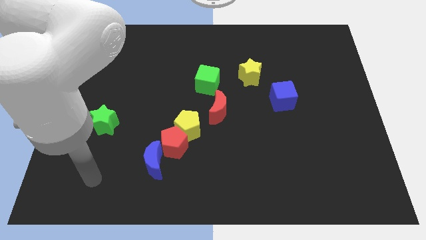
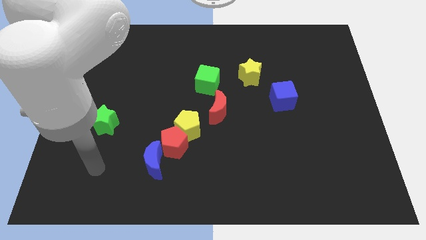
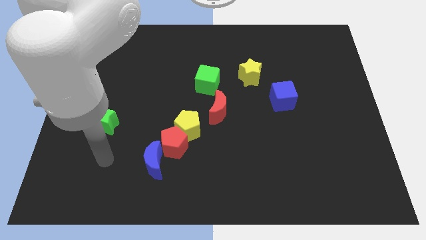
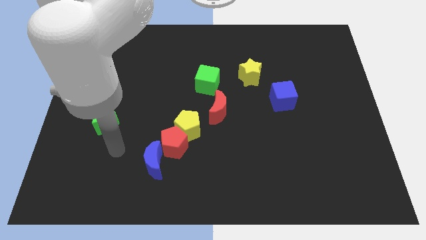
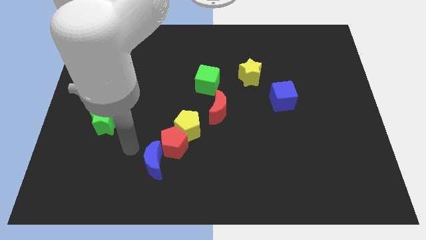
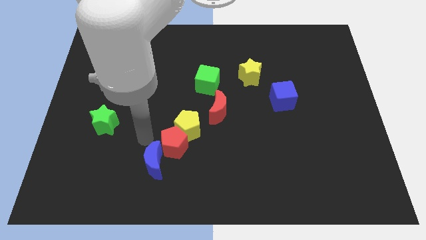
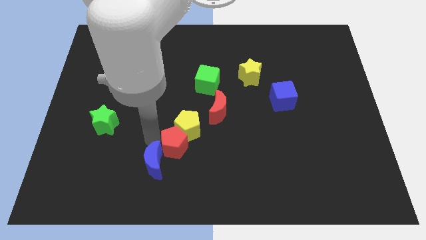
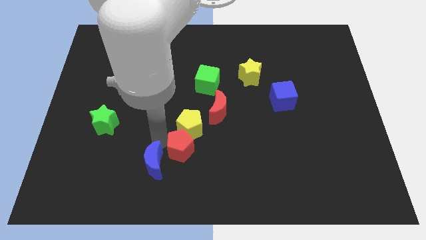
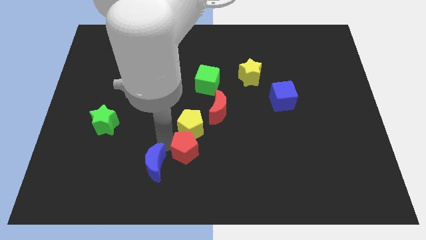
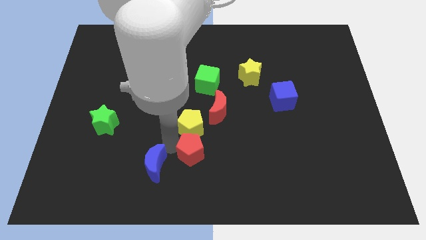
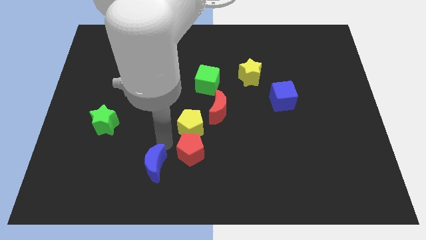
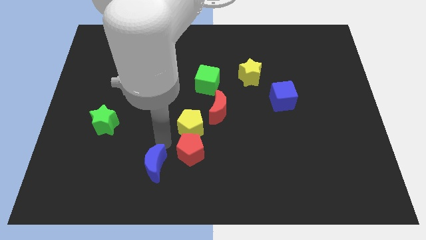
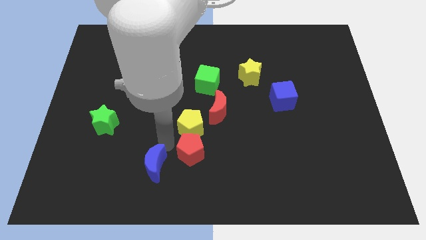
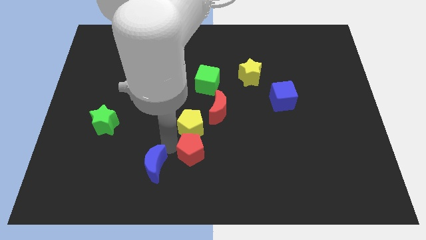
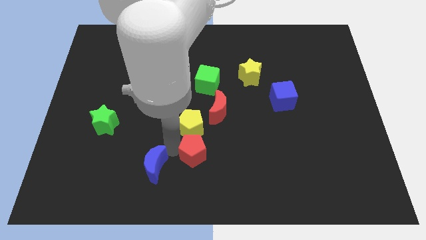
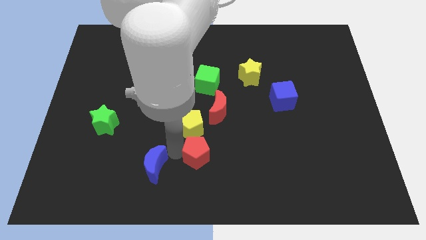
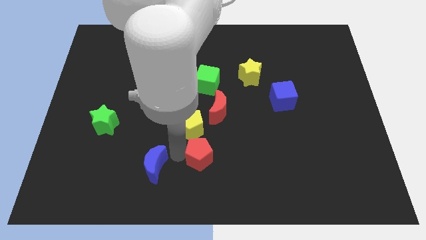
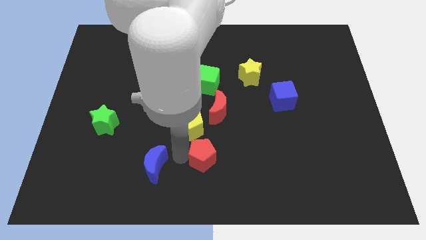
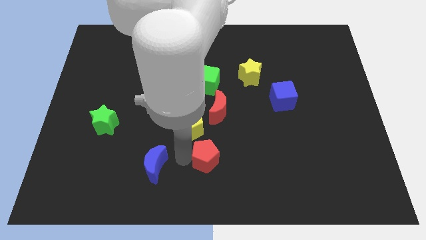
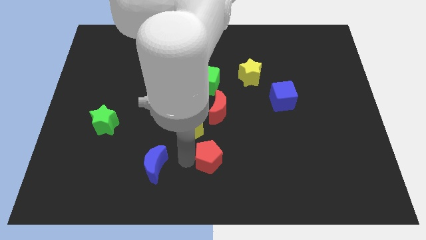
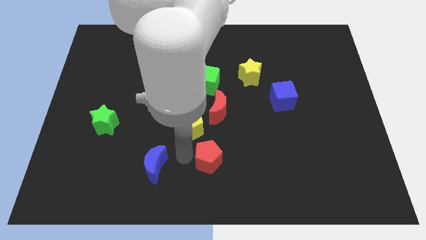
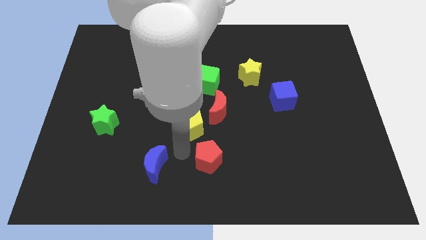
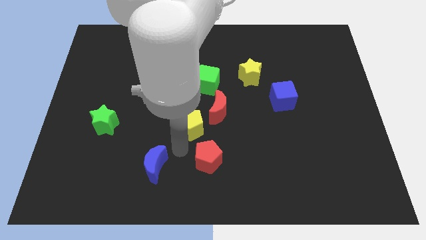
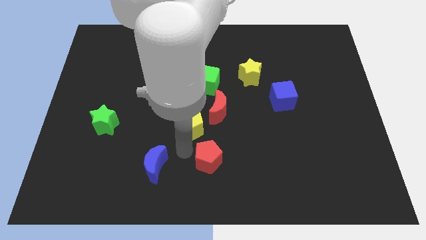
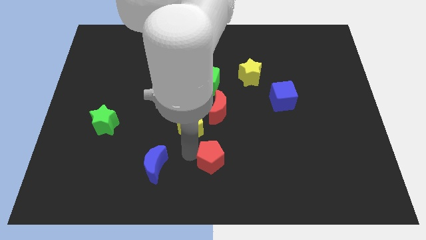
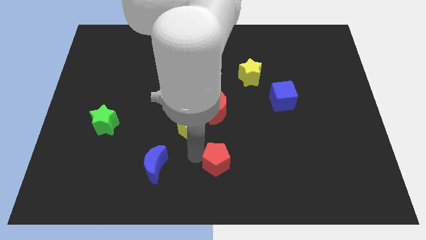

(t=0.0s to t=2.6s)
pull the red pentagon apart from the yellow pentagon and blue moon

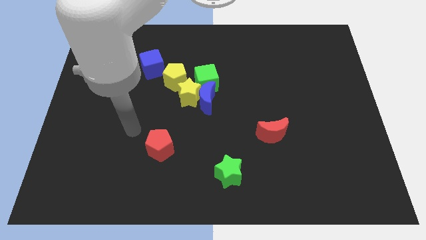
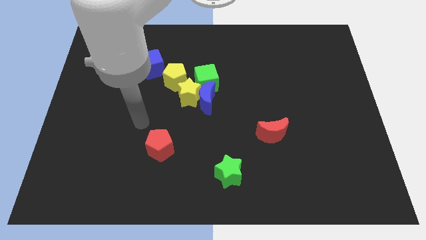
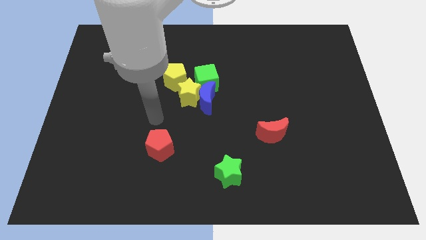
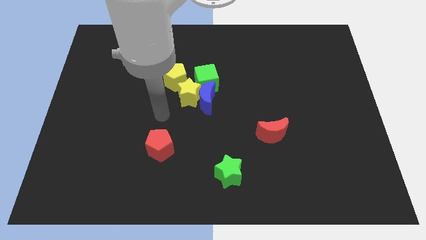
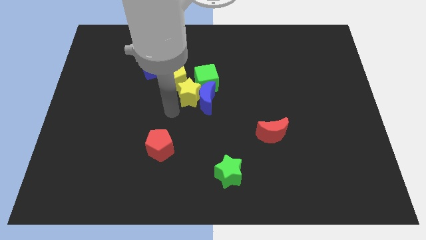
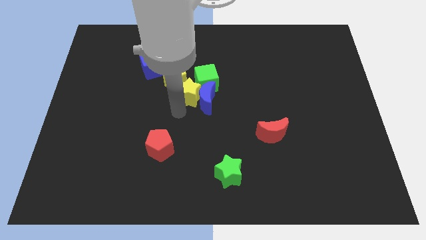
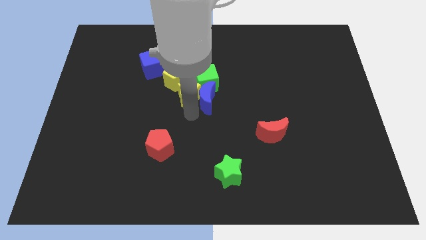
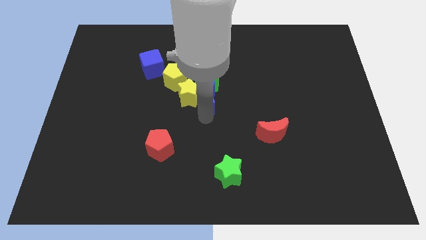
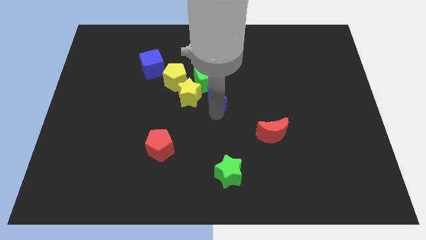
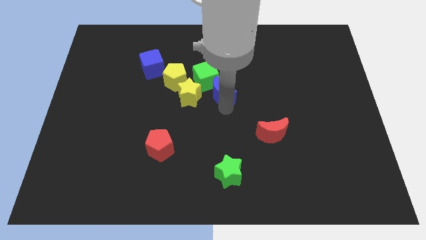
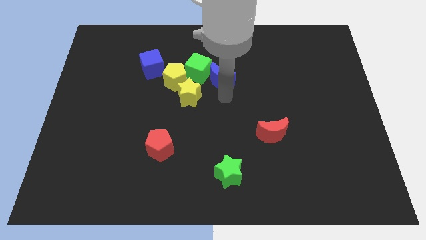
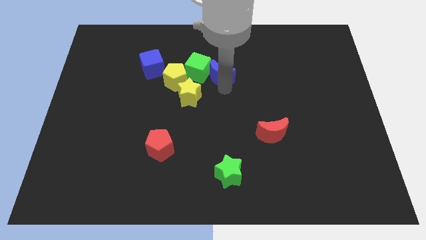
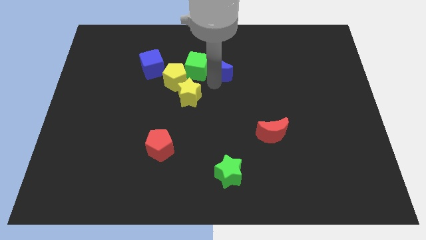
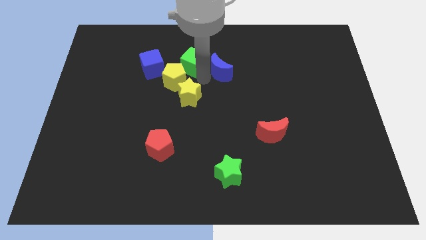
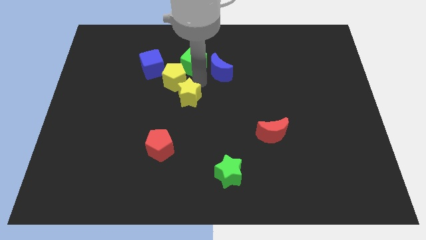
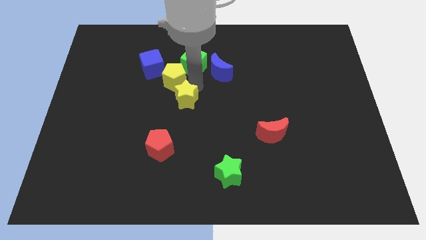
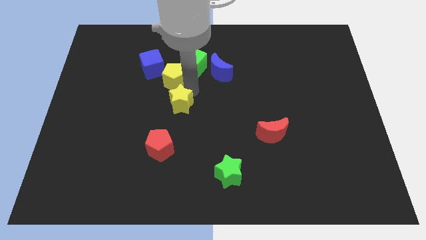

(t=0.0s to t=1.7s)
move the yellow star away from the group of blocks

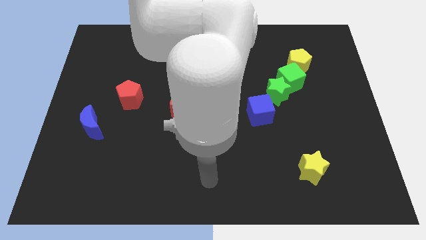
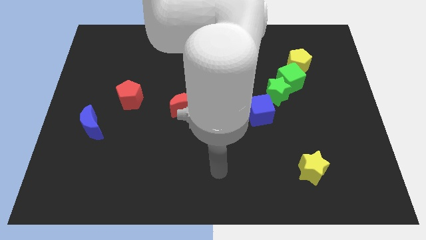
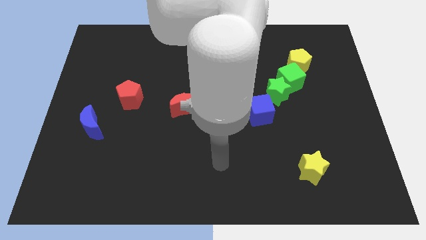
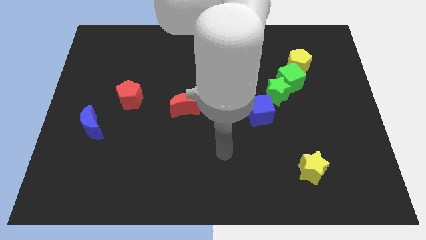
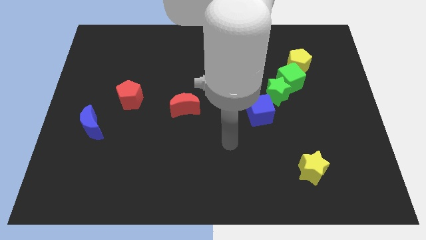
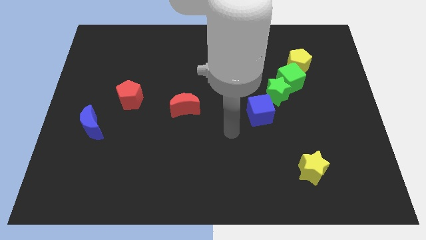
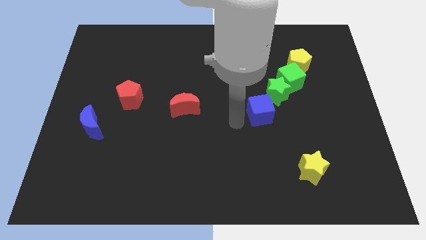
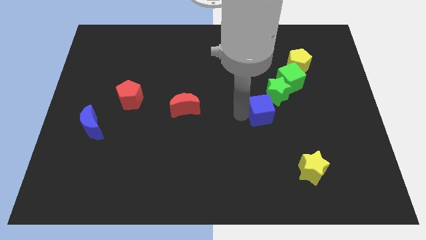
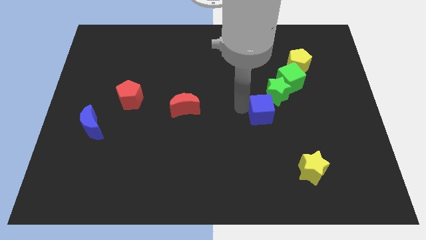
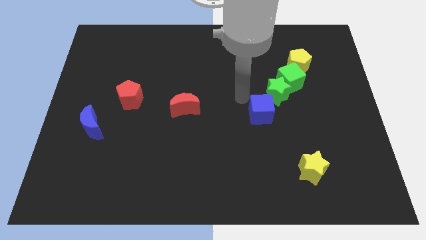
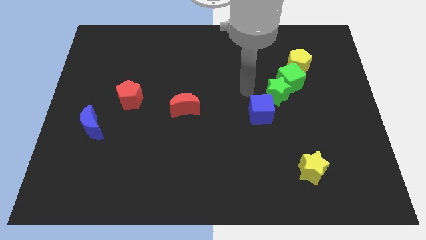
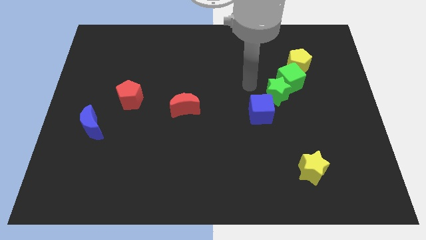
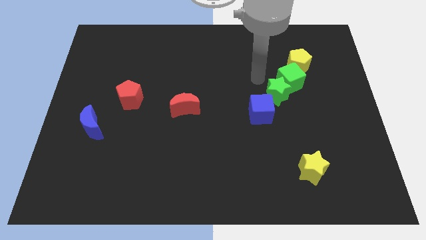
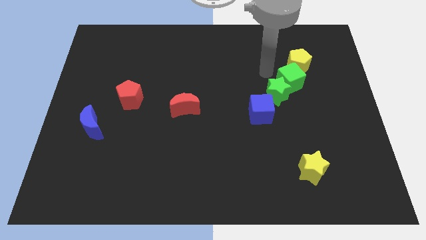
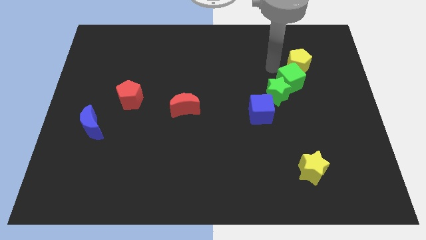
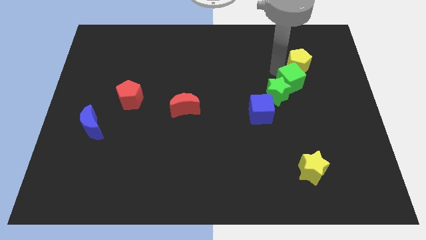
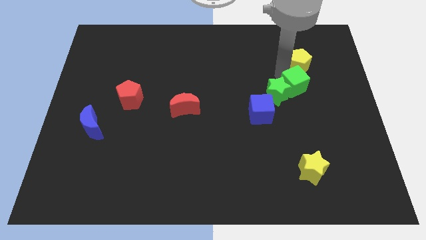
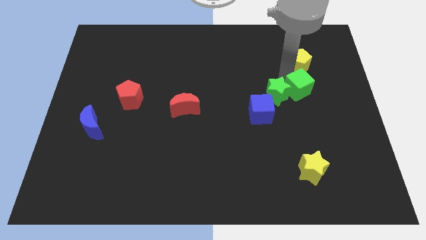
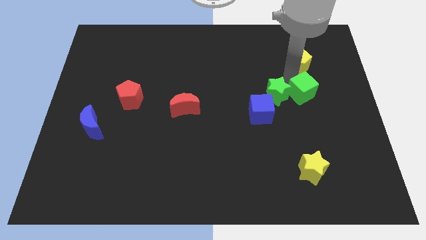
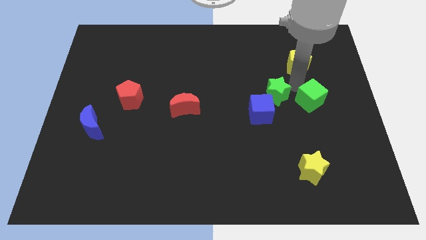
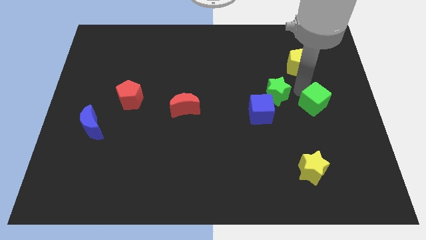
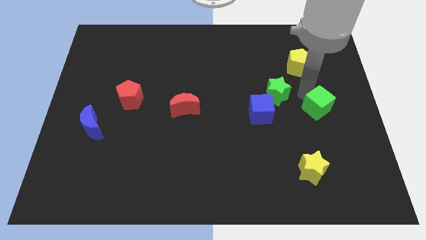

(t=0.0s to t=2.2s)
separate the green cube from the green star and yellow pentagon

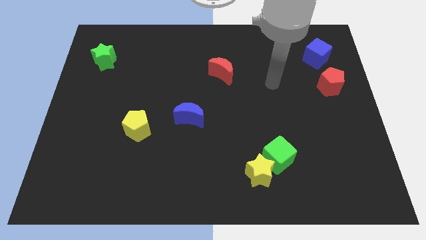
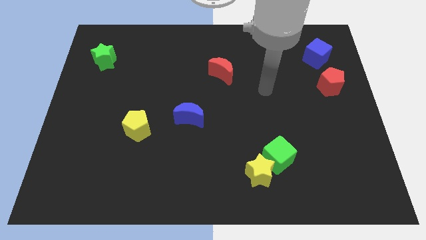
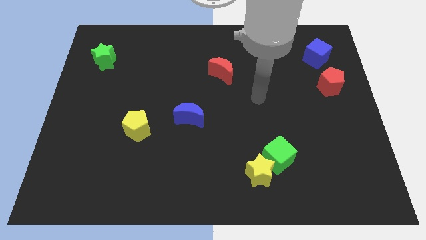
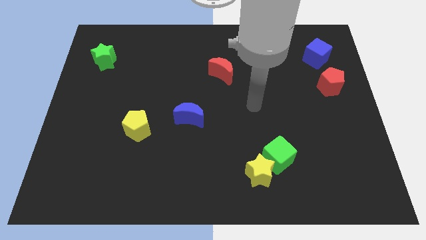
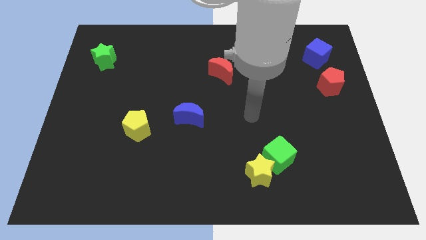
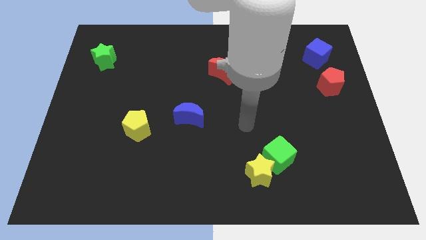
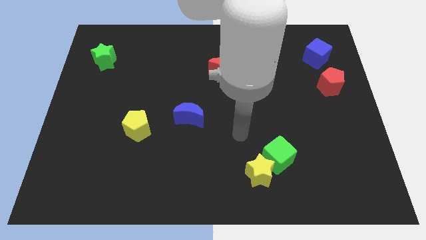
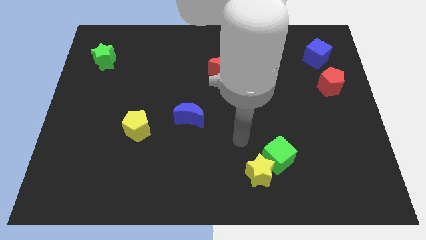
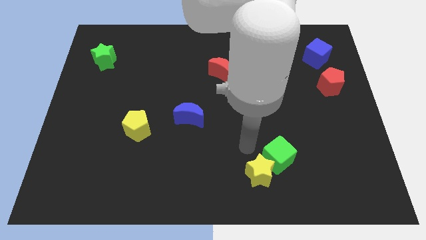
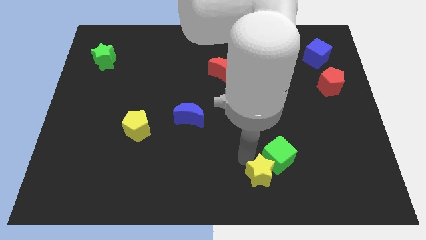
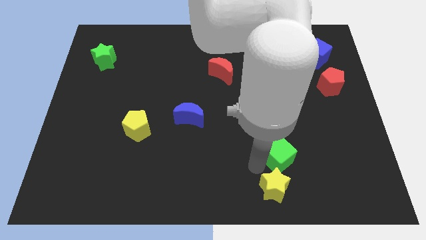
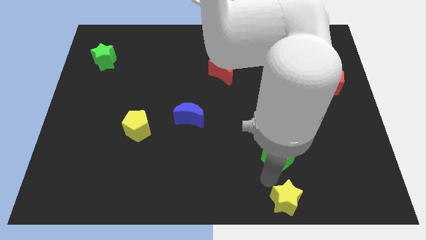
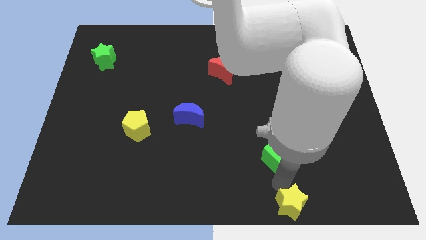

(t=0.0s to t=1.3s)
move the green cube away from the yellow star

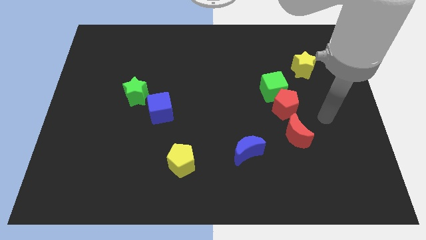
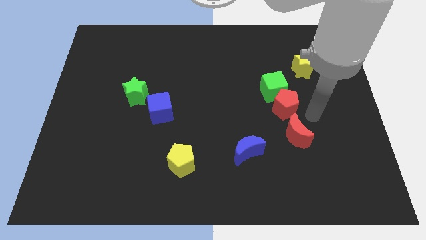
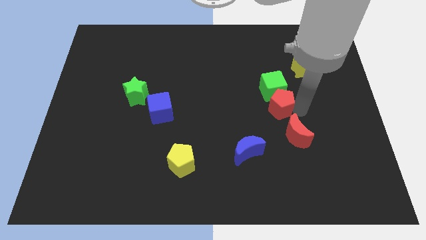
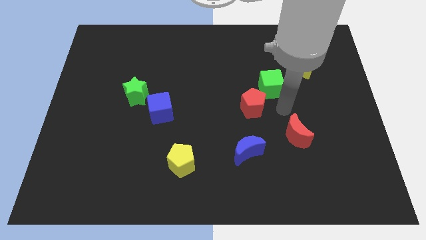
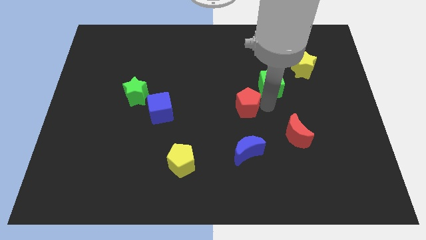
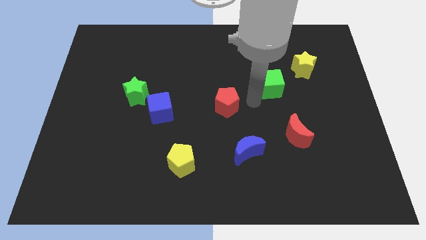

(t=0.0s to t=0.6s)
pull the green cube apart from the red pentagon

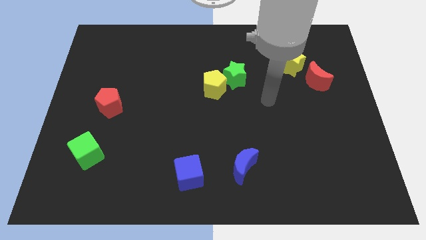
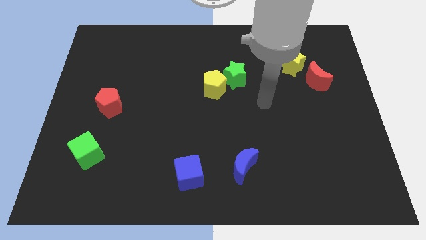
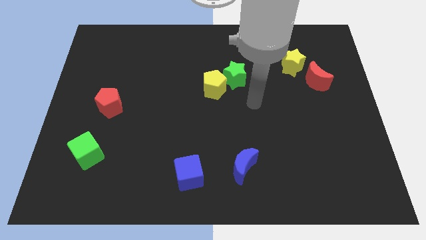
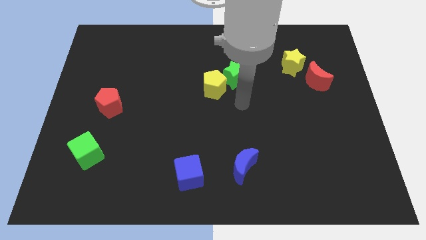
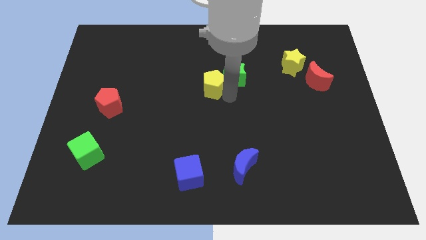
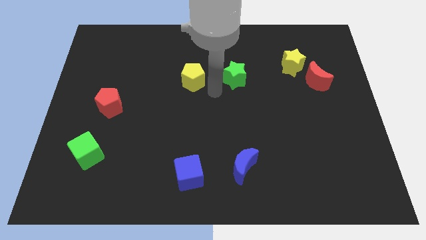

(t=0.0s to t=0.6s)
separate the green star from the yellow pentagon

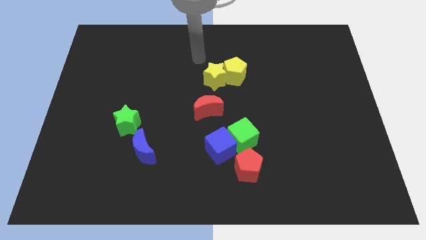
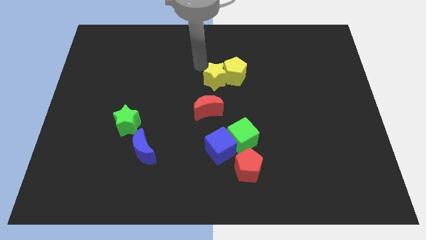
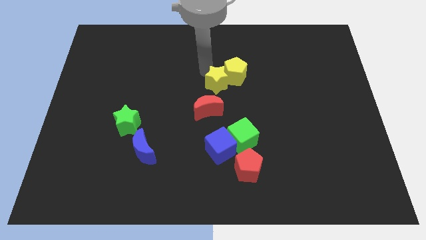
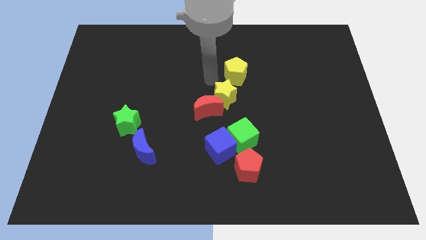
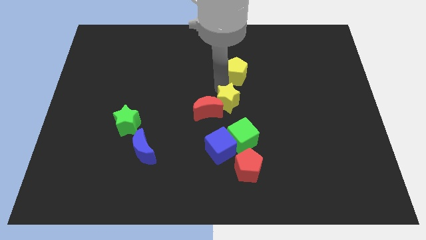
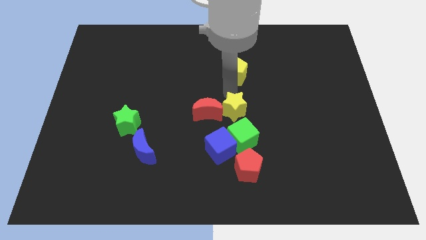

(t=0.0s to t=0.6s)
separate the yellow pentagon from the yellow star
